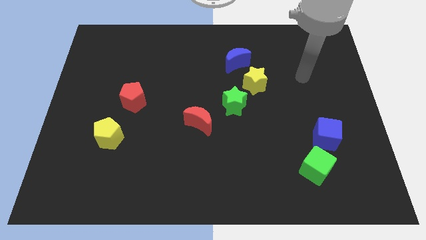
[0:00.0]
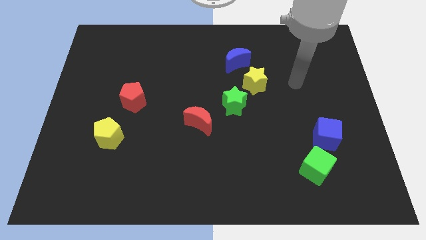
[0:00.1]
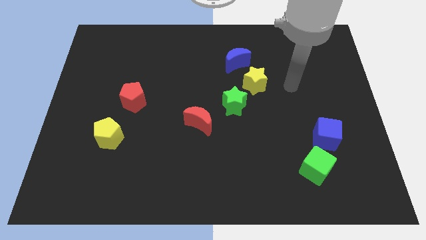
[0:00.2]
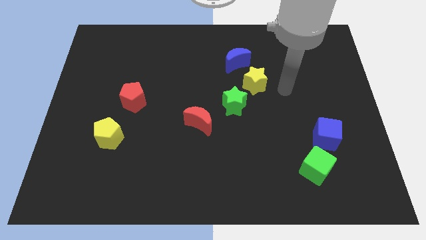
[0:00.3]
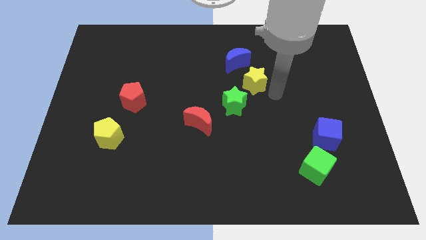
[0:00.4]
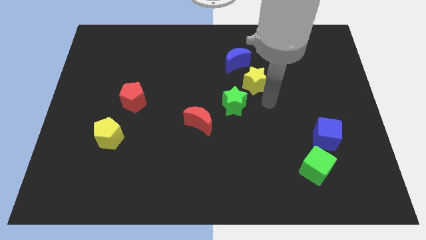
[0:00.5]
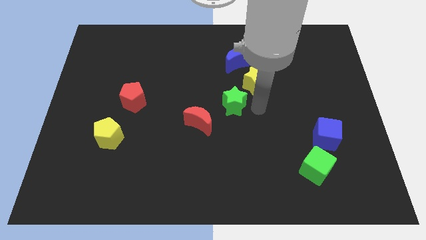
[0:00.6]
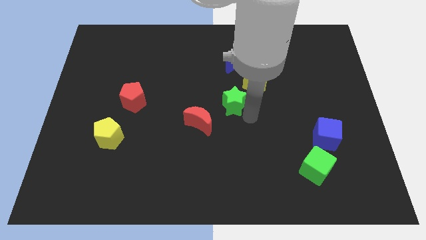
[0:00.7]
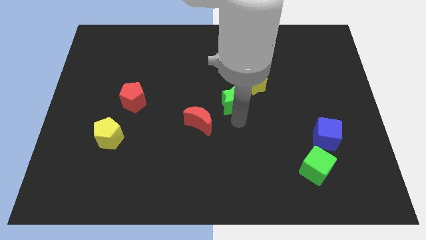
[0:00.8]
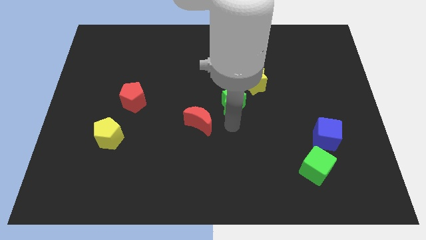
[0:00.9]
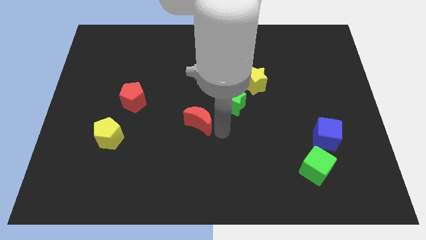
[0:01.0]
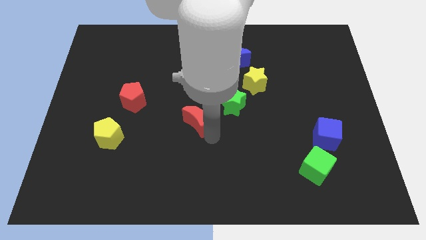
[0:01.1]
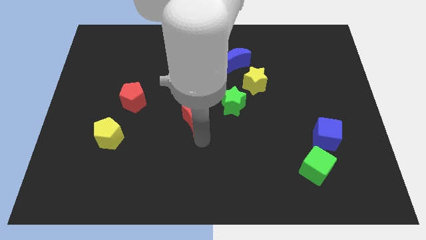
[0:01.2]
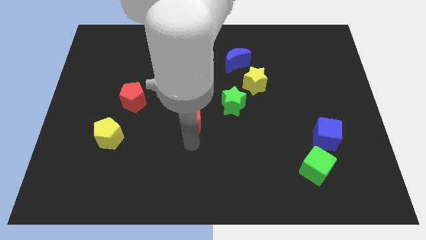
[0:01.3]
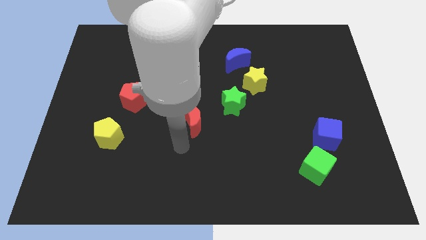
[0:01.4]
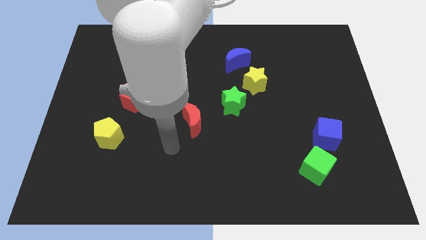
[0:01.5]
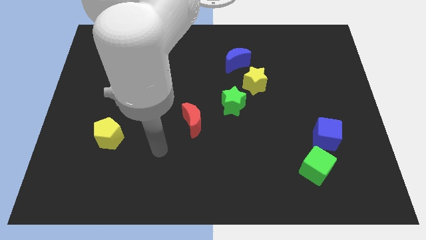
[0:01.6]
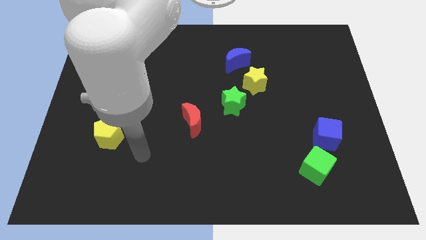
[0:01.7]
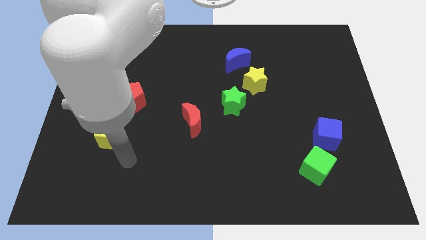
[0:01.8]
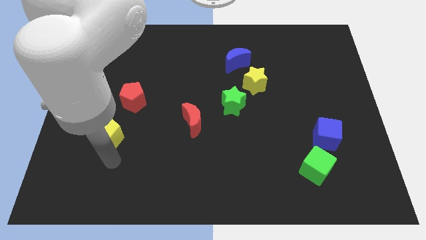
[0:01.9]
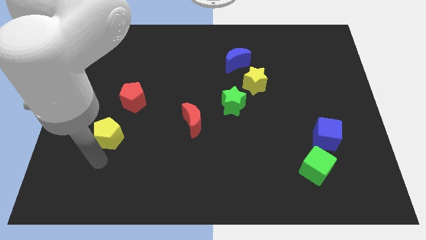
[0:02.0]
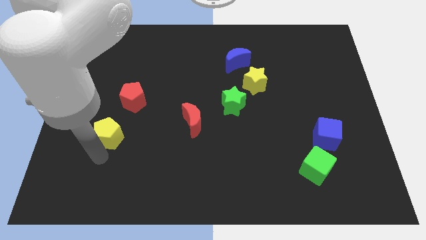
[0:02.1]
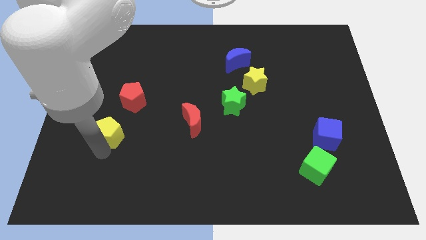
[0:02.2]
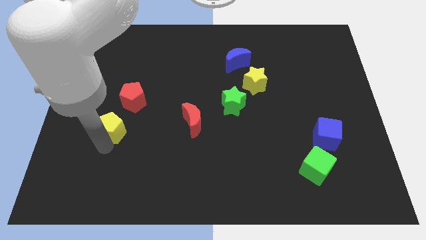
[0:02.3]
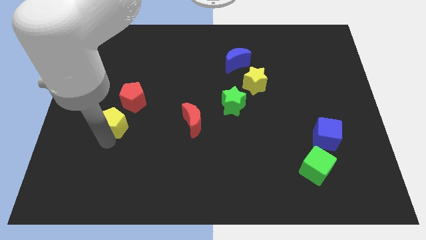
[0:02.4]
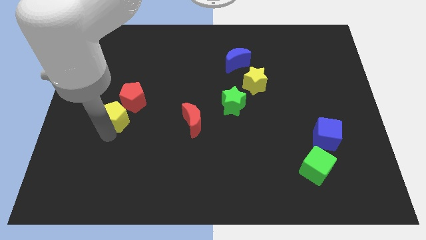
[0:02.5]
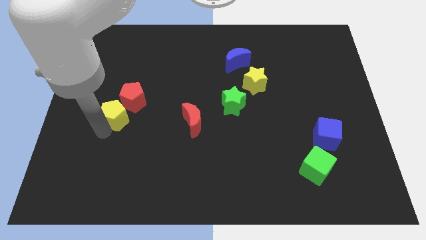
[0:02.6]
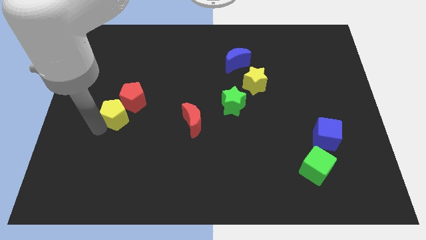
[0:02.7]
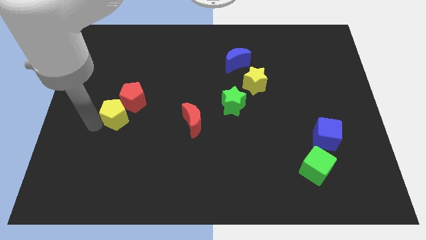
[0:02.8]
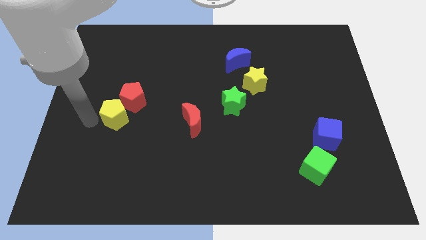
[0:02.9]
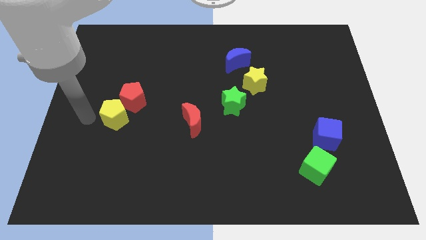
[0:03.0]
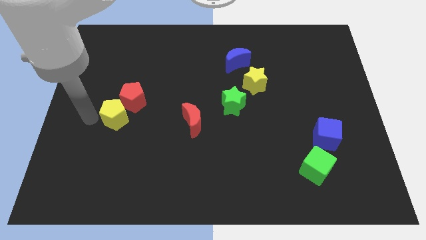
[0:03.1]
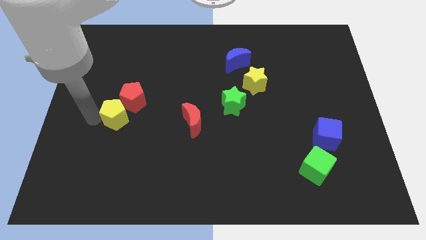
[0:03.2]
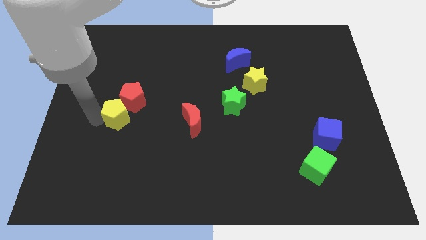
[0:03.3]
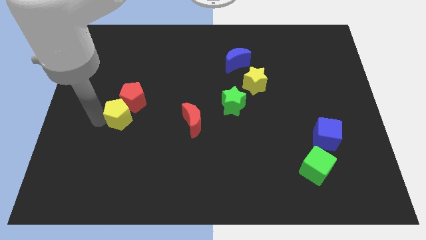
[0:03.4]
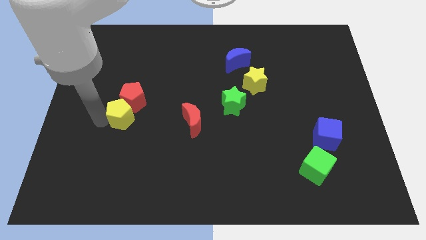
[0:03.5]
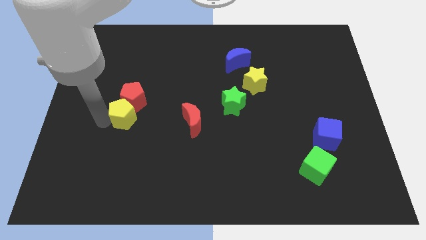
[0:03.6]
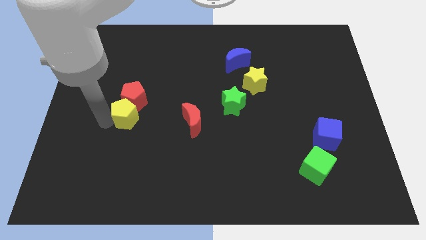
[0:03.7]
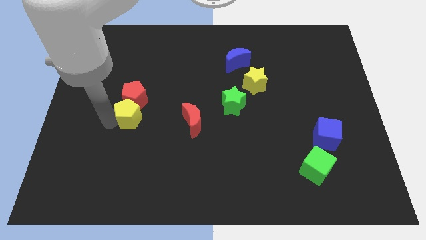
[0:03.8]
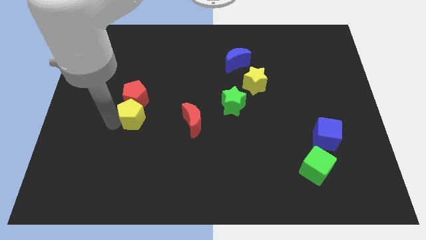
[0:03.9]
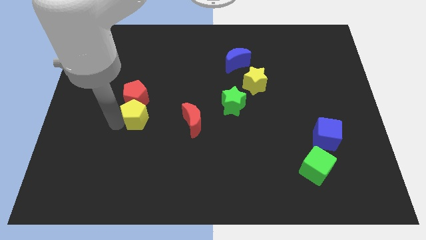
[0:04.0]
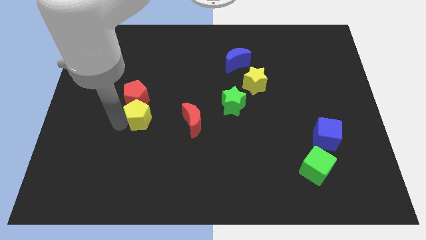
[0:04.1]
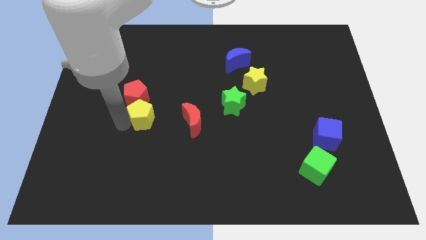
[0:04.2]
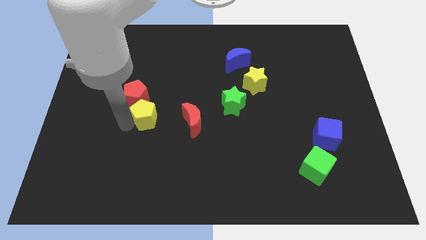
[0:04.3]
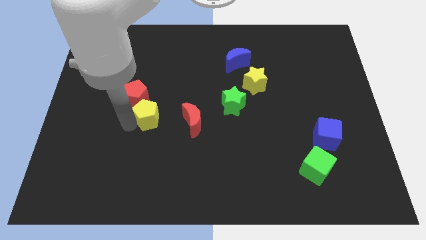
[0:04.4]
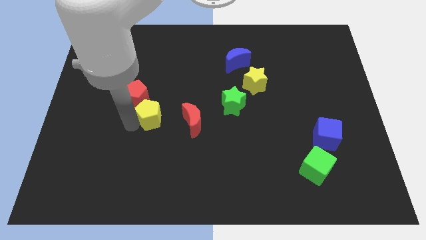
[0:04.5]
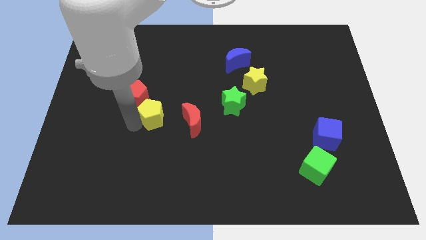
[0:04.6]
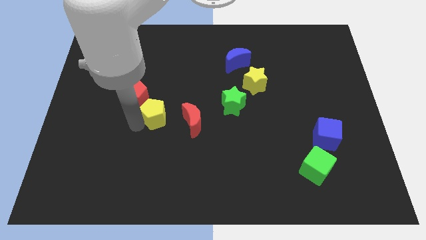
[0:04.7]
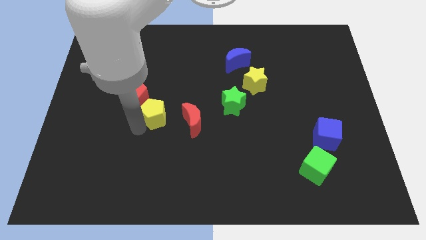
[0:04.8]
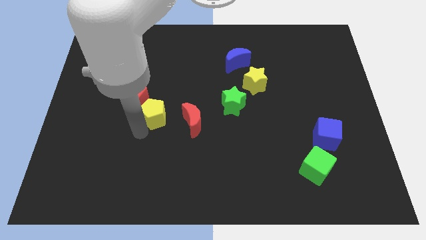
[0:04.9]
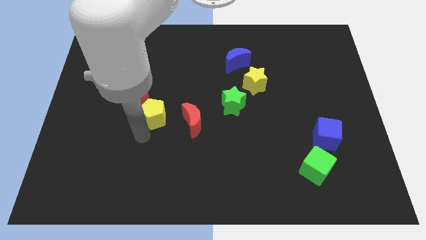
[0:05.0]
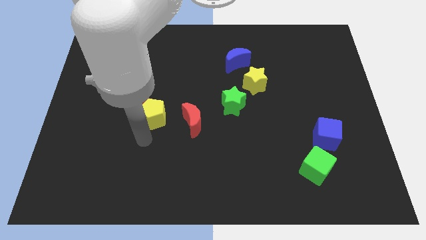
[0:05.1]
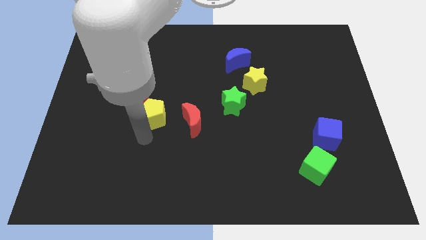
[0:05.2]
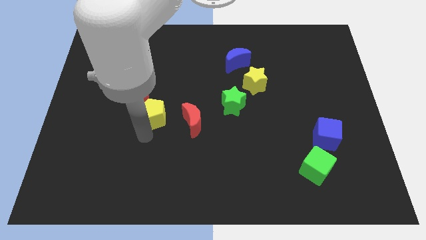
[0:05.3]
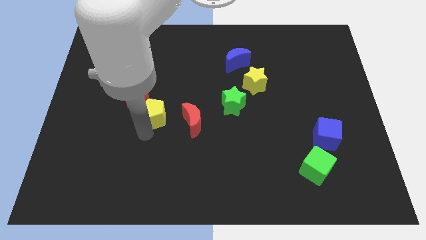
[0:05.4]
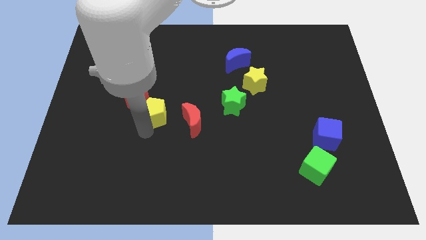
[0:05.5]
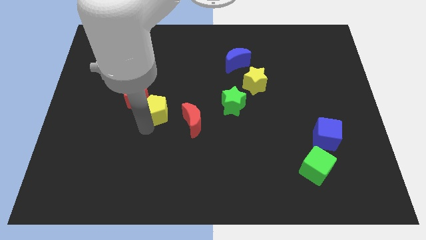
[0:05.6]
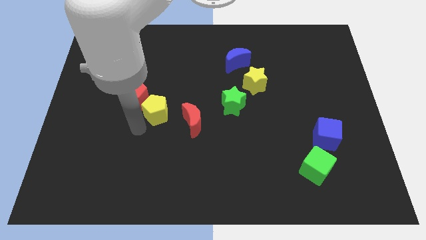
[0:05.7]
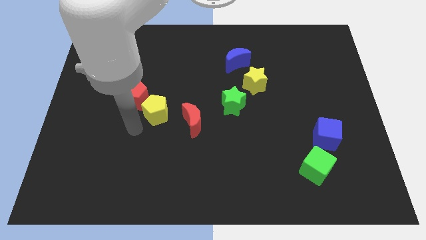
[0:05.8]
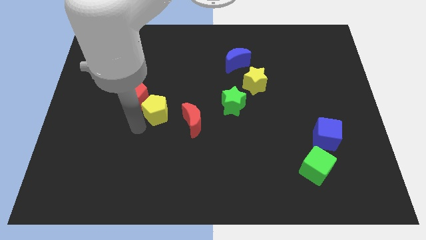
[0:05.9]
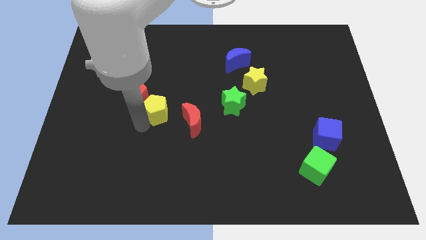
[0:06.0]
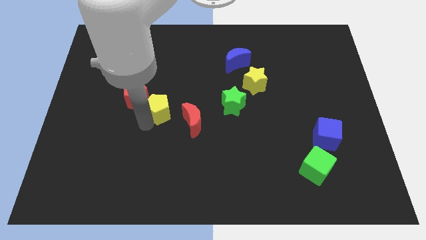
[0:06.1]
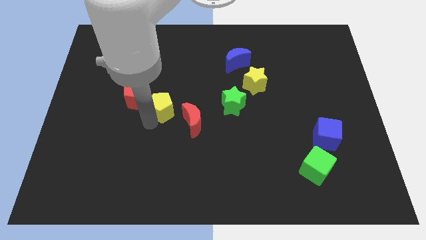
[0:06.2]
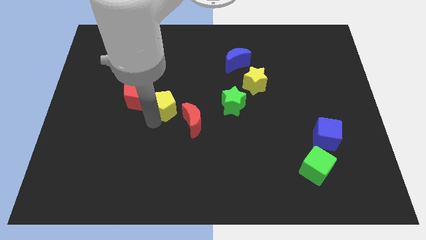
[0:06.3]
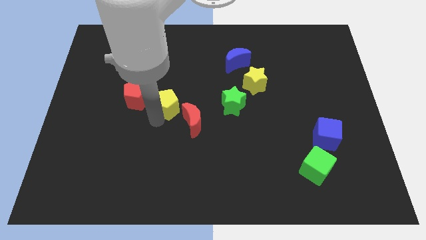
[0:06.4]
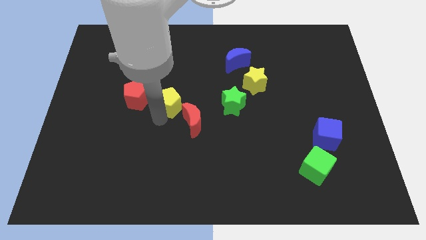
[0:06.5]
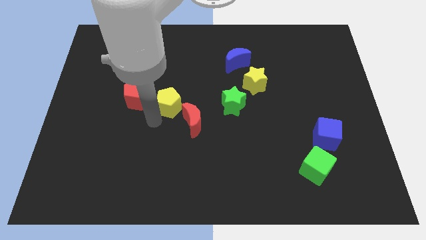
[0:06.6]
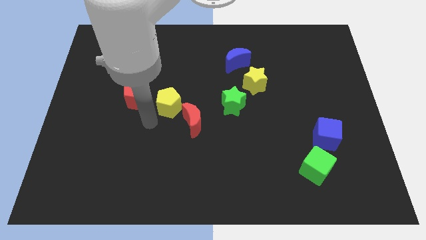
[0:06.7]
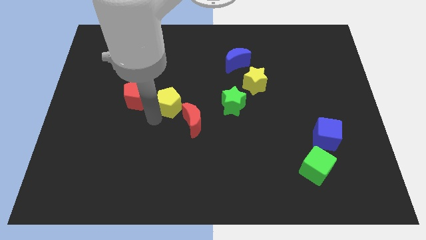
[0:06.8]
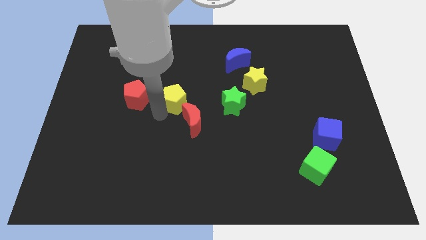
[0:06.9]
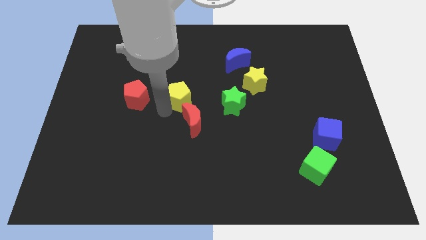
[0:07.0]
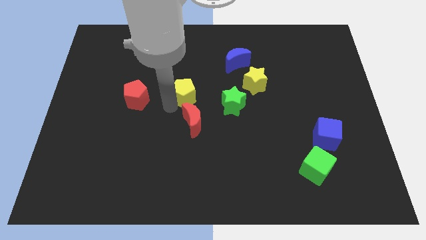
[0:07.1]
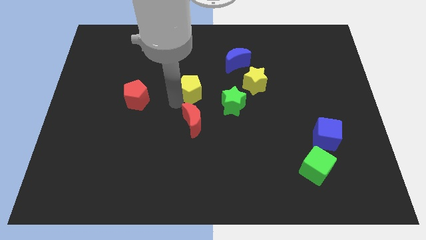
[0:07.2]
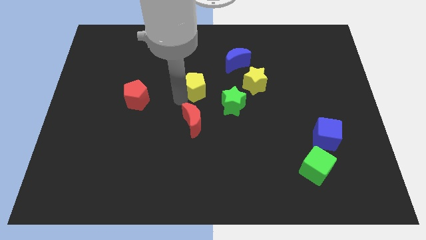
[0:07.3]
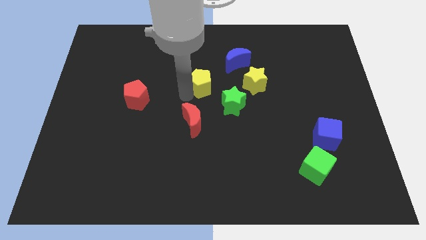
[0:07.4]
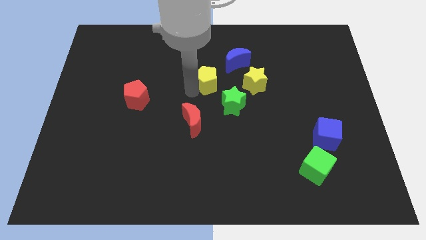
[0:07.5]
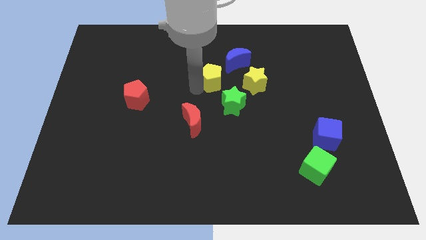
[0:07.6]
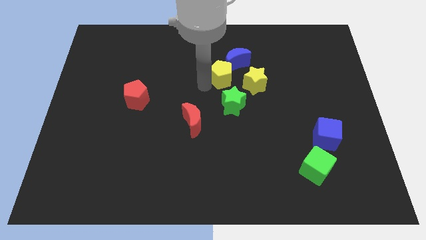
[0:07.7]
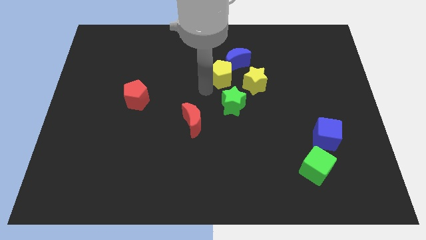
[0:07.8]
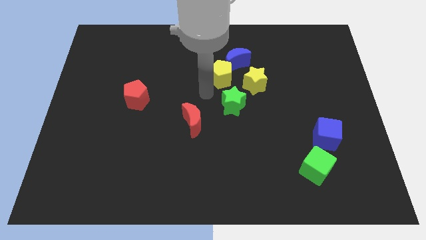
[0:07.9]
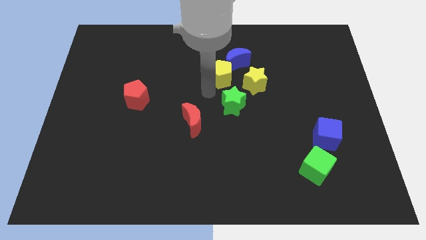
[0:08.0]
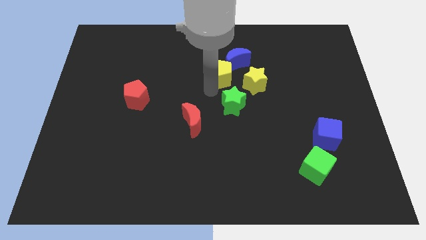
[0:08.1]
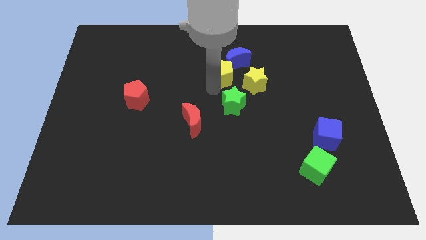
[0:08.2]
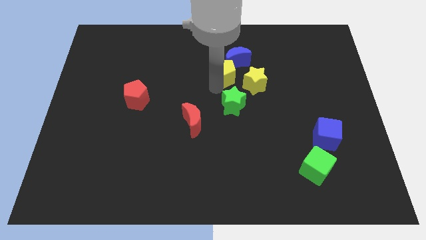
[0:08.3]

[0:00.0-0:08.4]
push the yellow pentagon next to the blue moon
